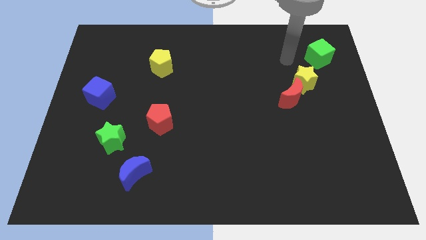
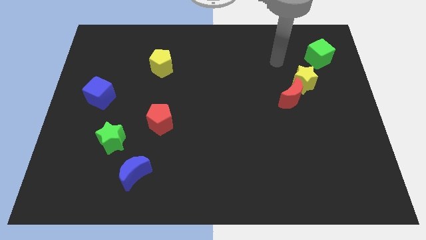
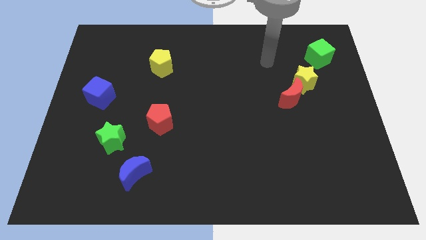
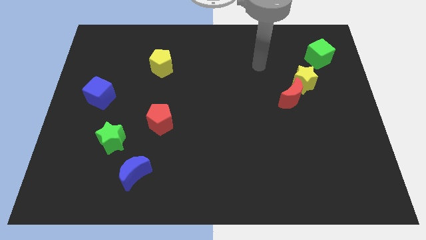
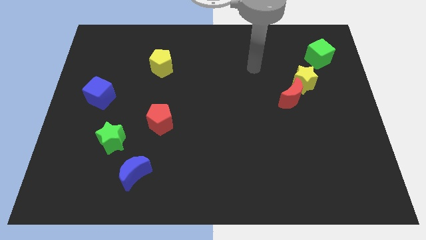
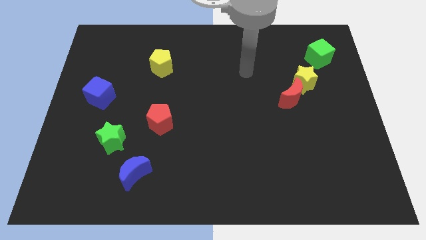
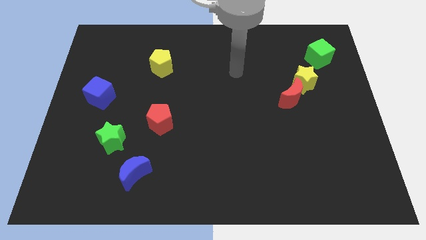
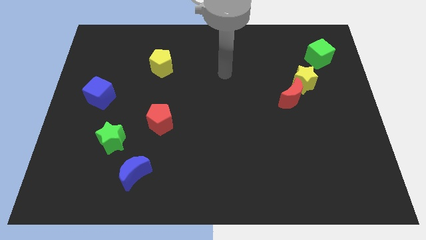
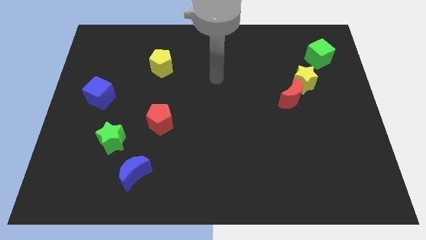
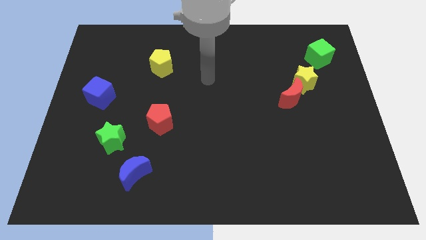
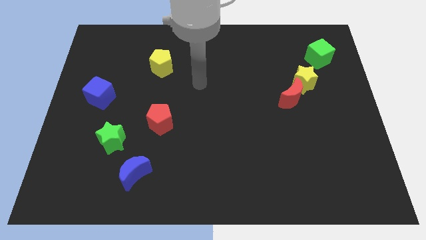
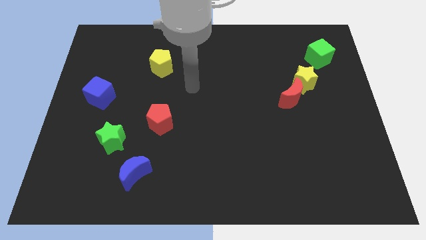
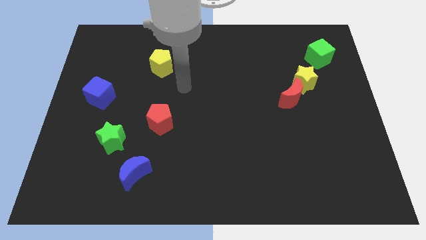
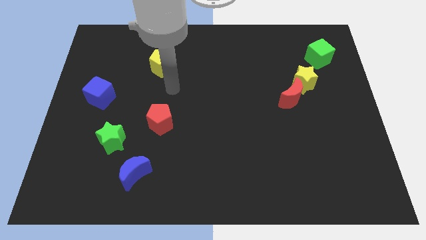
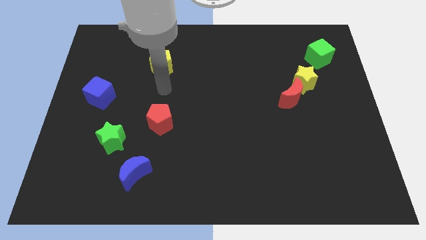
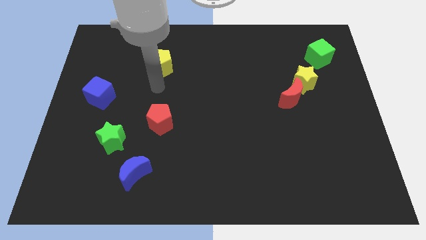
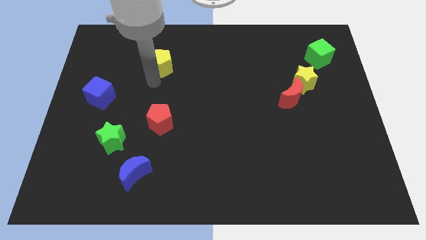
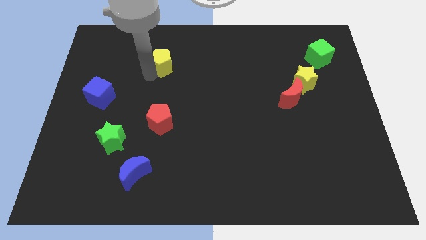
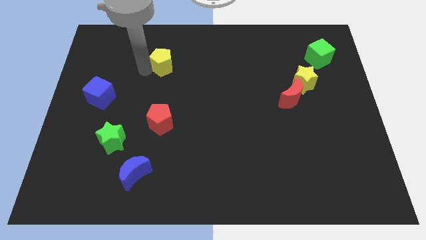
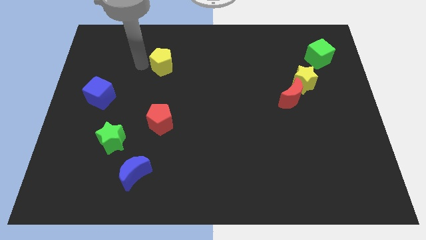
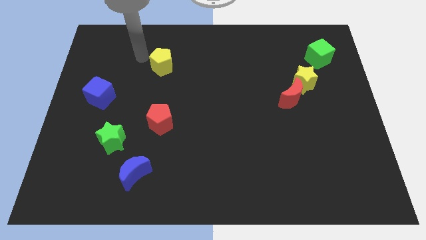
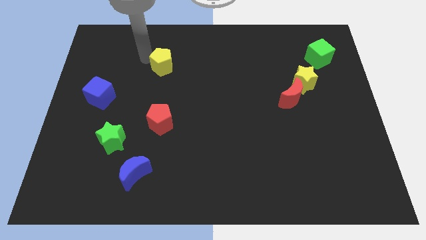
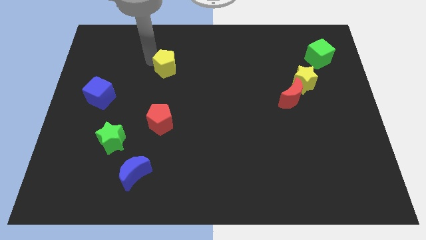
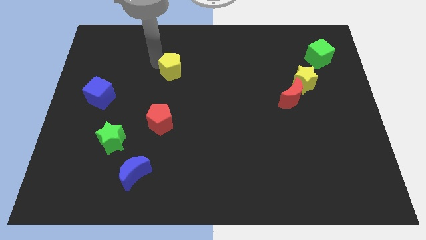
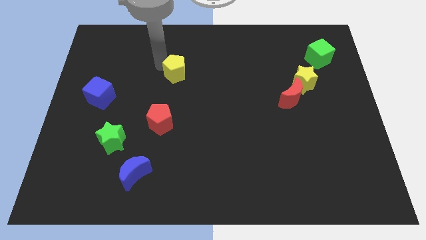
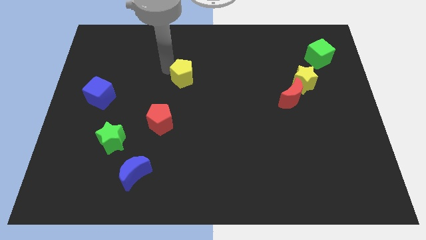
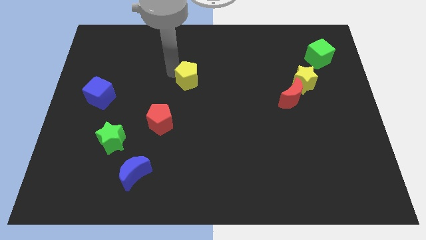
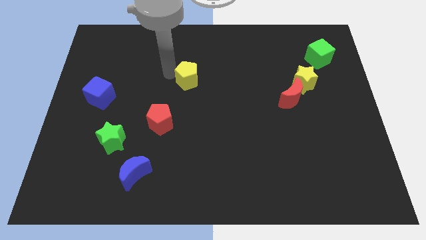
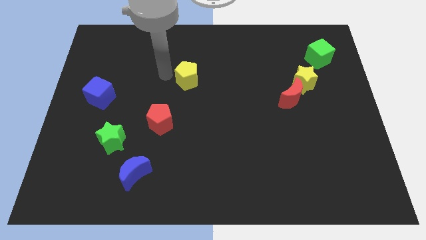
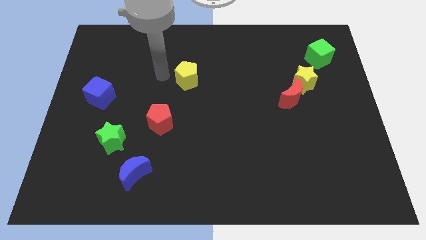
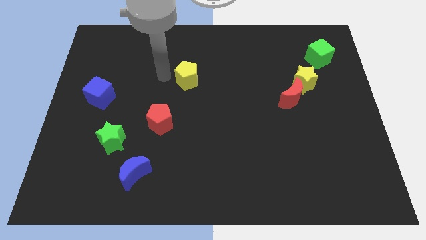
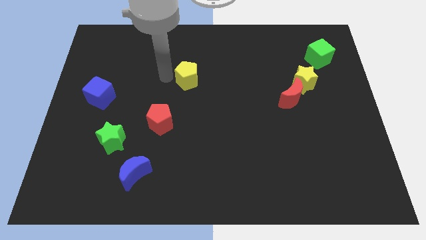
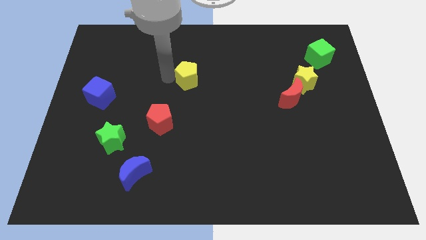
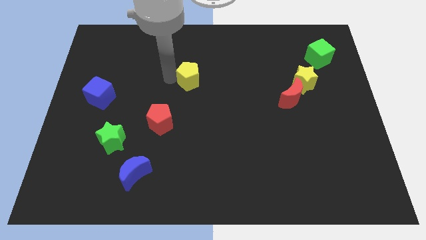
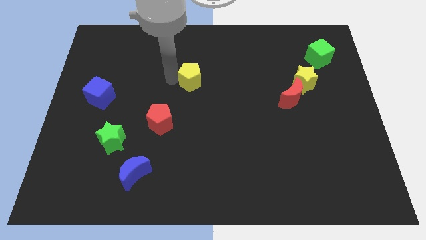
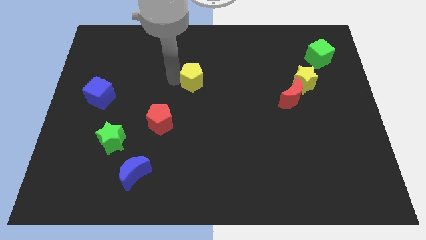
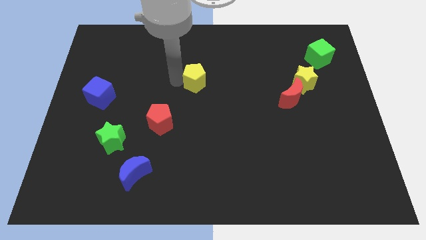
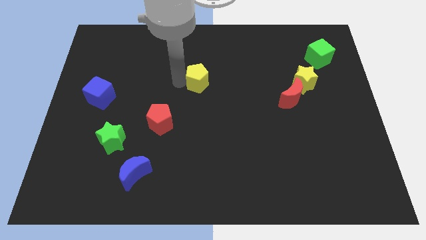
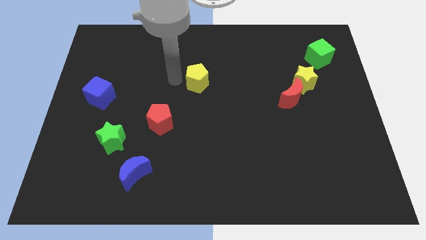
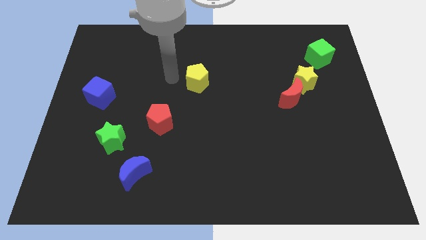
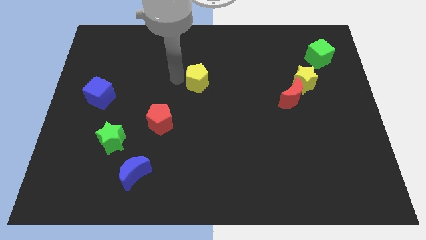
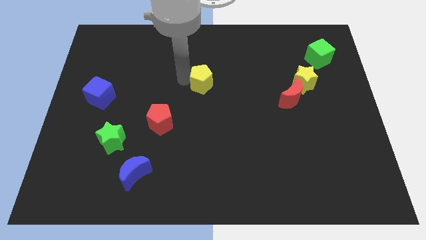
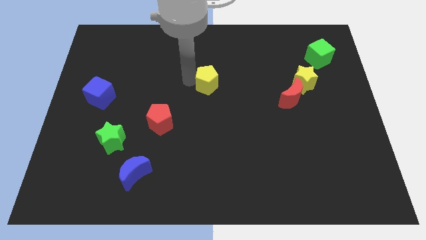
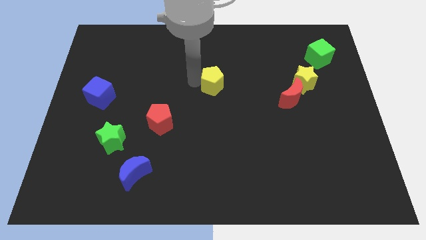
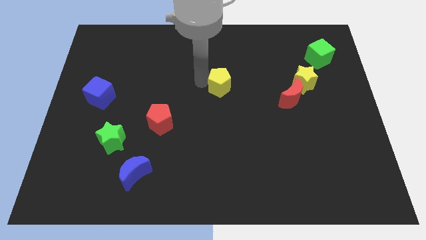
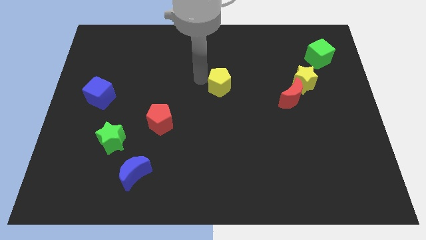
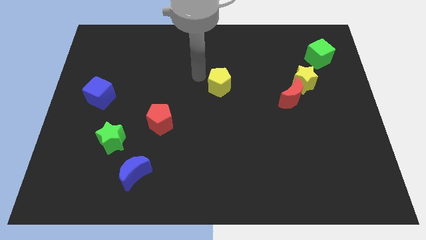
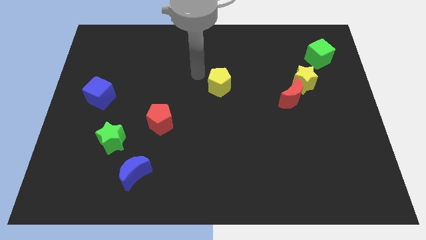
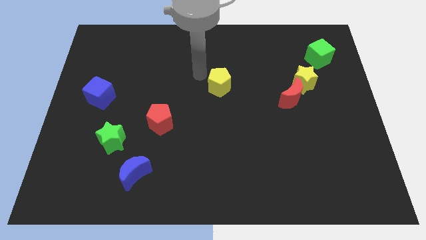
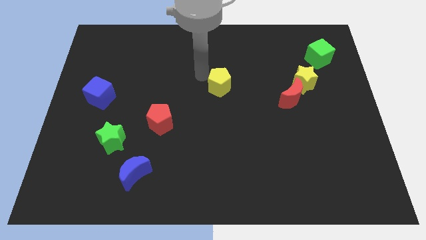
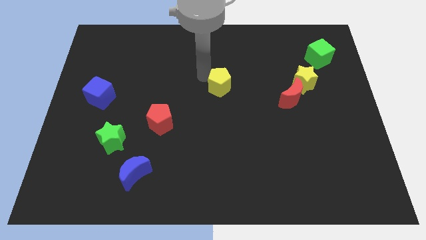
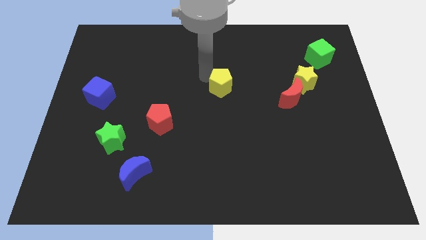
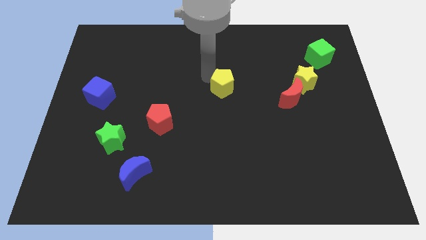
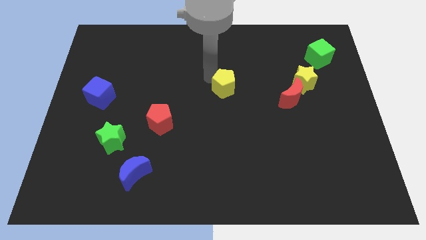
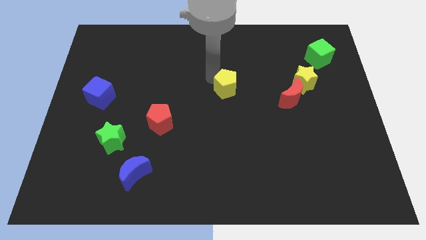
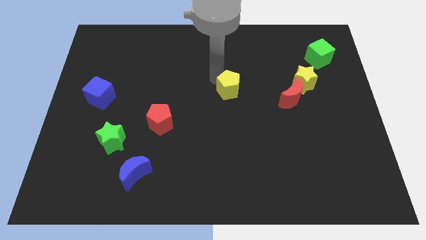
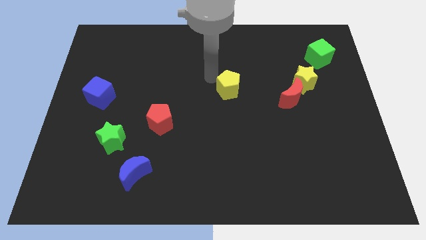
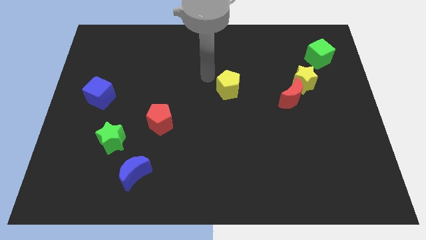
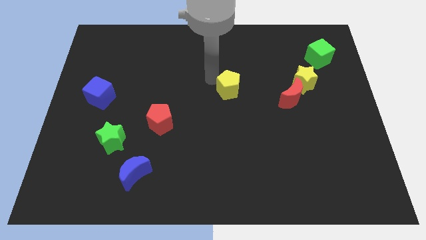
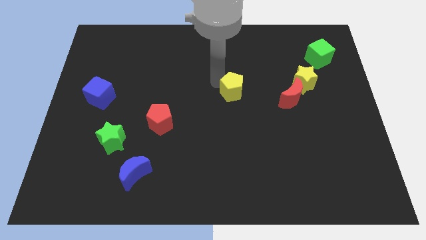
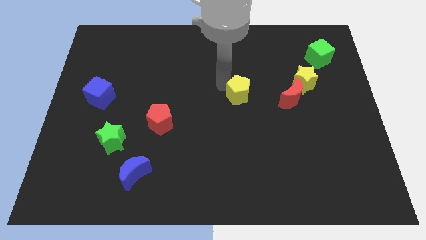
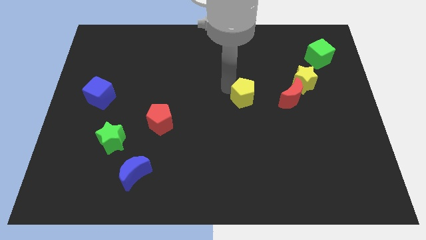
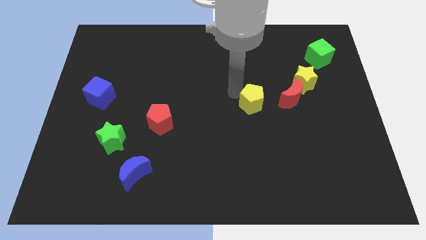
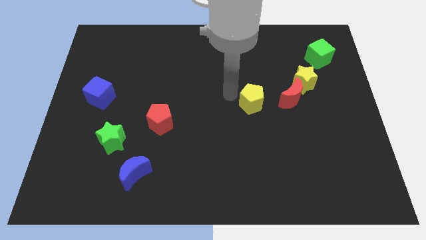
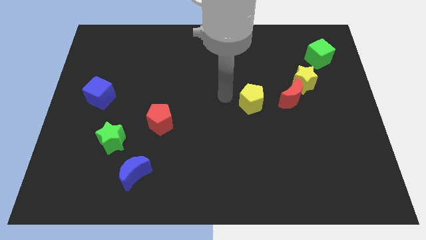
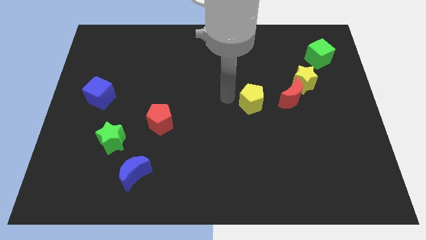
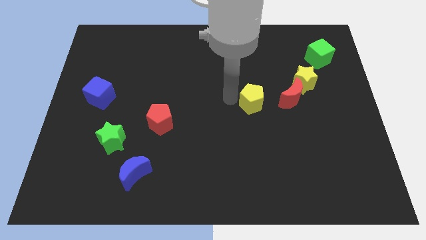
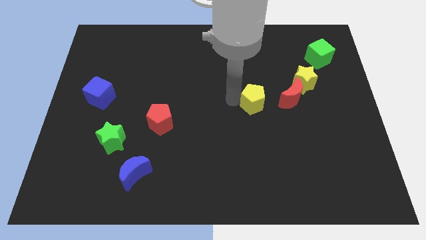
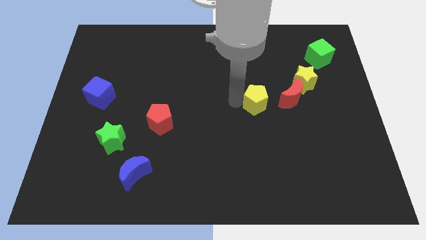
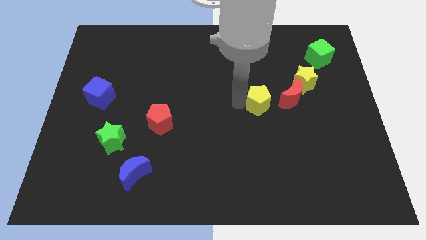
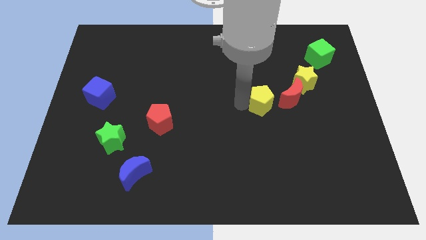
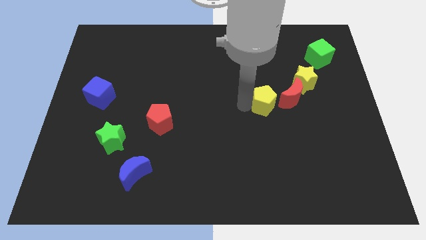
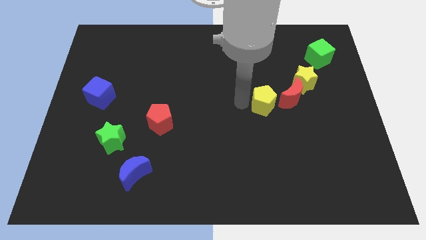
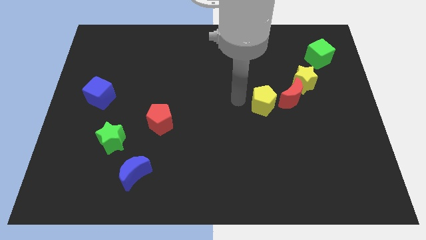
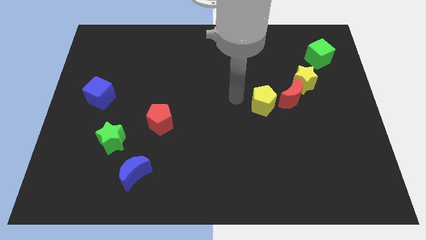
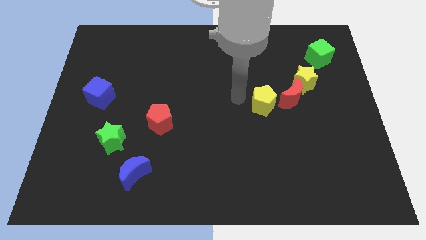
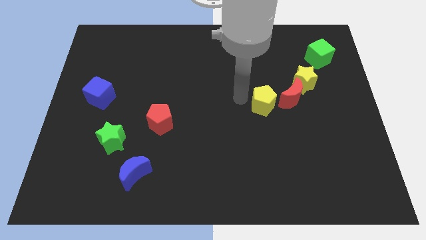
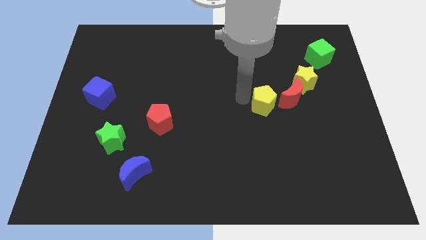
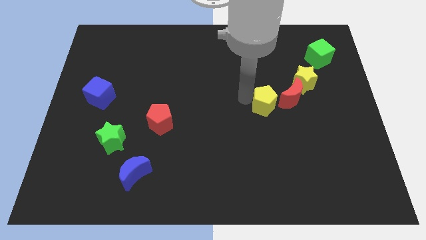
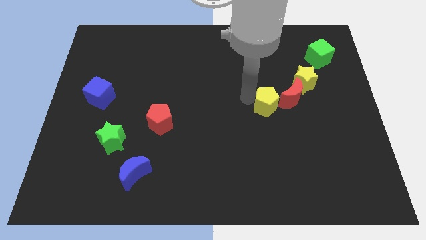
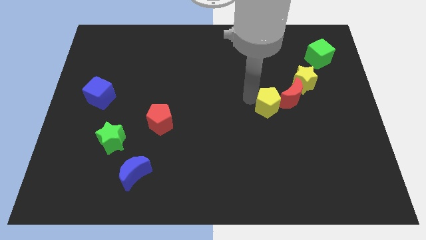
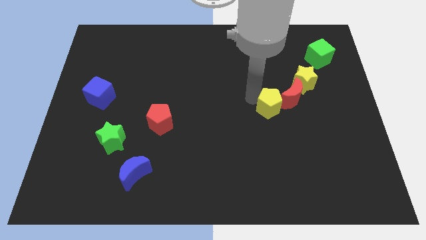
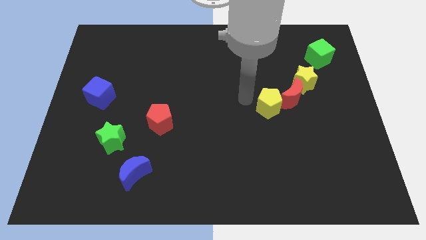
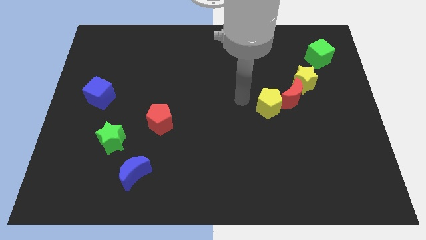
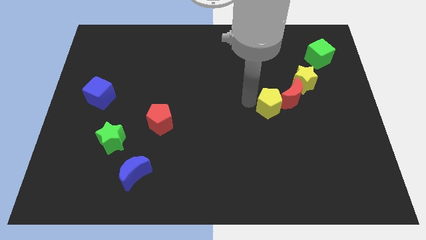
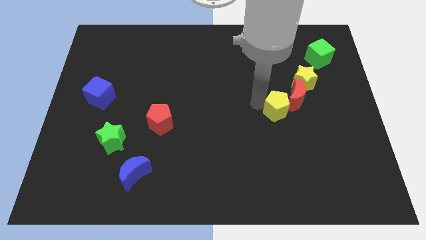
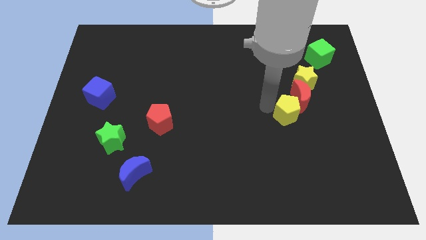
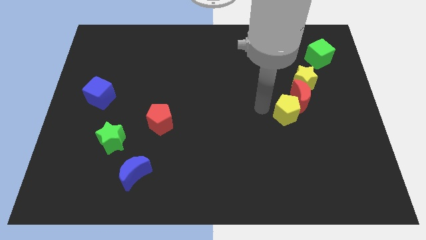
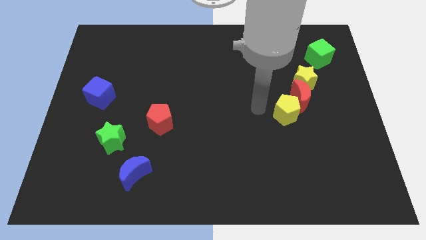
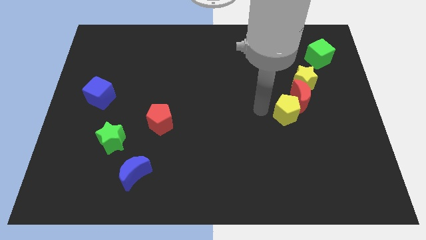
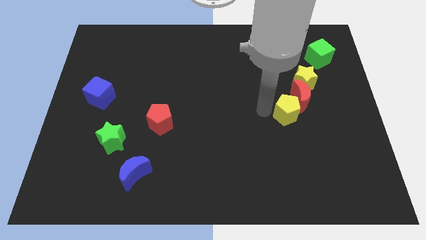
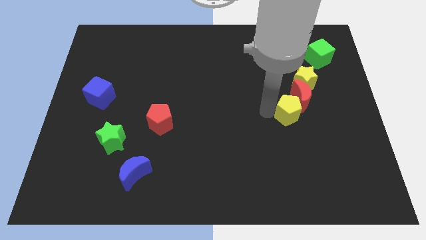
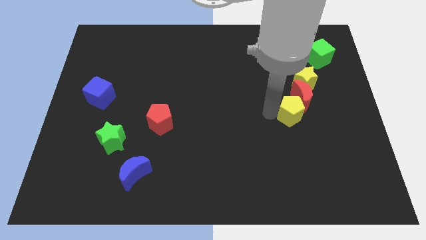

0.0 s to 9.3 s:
put the yellow pentagon below the yellow star
